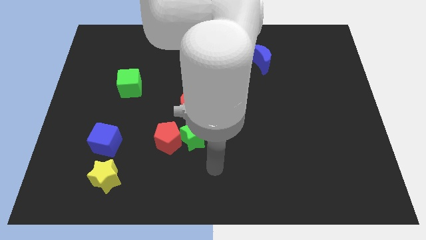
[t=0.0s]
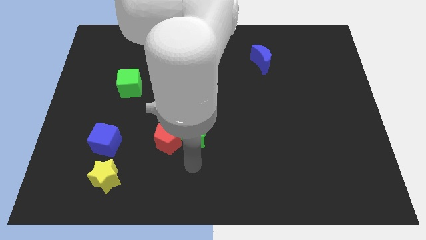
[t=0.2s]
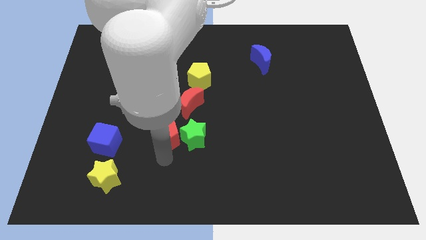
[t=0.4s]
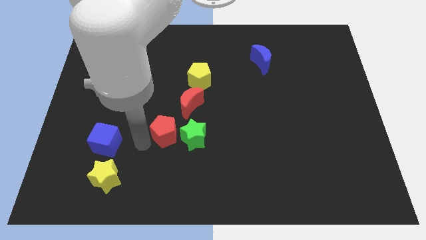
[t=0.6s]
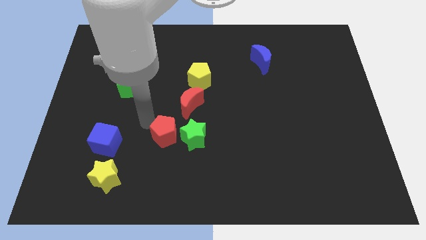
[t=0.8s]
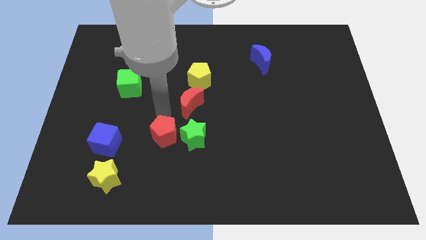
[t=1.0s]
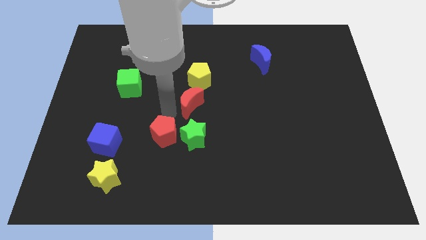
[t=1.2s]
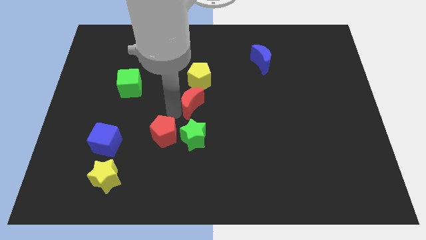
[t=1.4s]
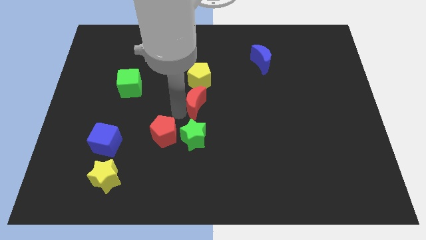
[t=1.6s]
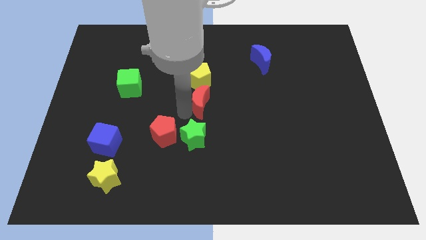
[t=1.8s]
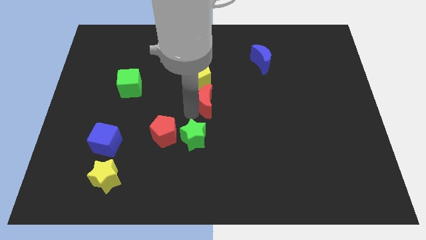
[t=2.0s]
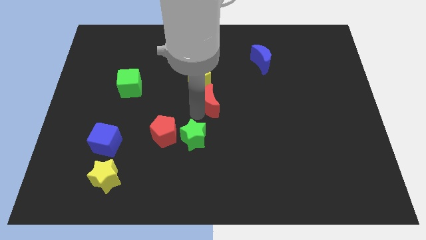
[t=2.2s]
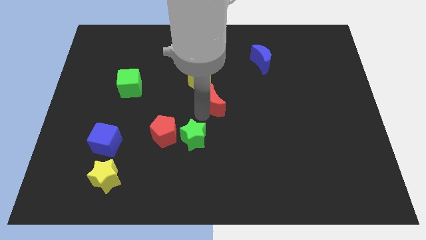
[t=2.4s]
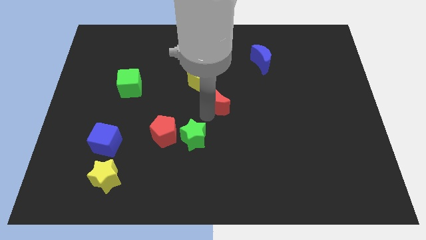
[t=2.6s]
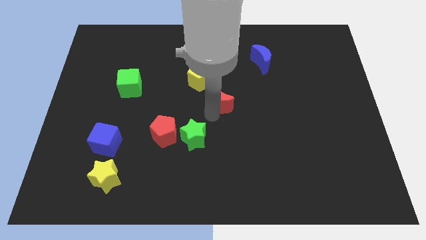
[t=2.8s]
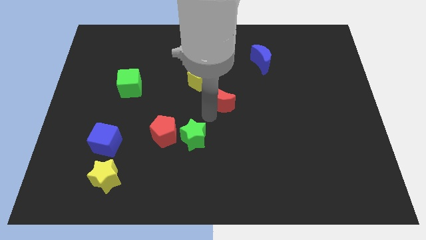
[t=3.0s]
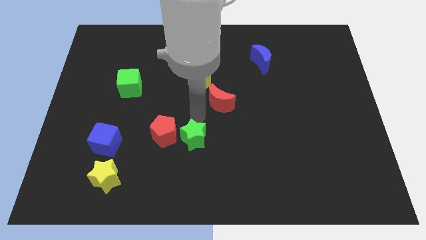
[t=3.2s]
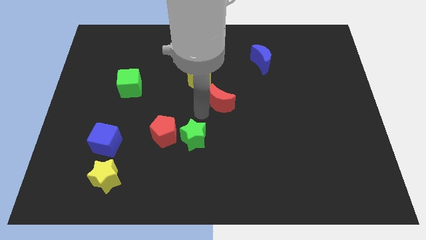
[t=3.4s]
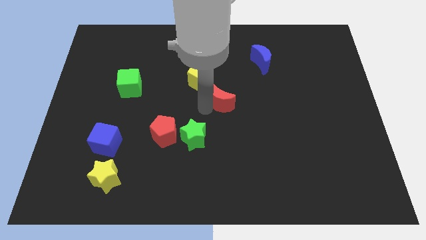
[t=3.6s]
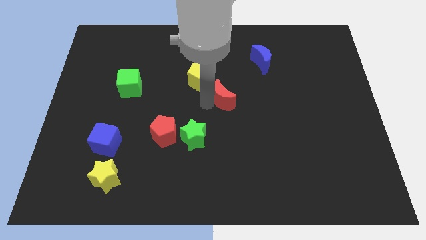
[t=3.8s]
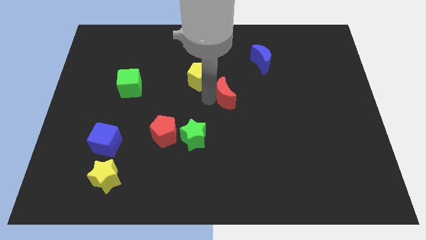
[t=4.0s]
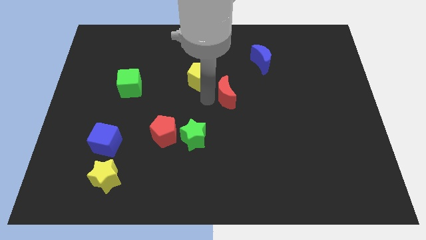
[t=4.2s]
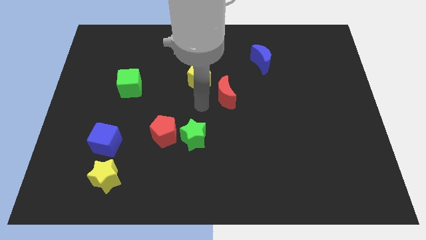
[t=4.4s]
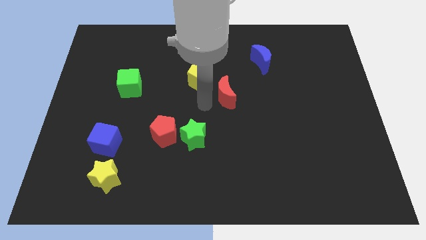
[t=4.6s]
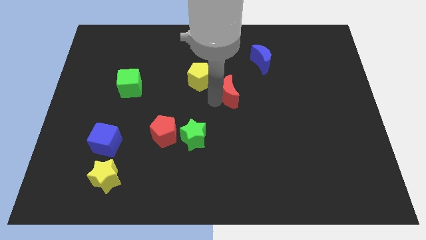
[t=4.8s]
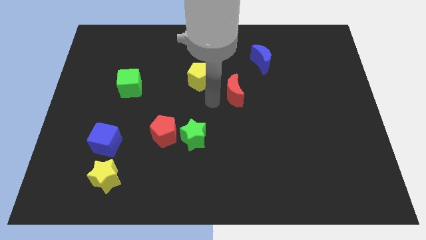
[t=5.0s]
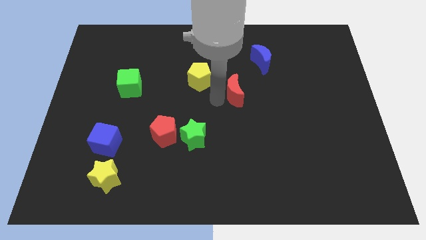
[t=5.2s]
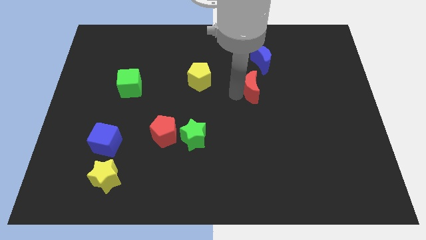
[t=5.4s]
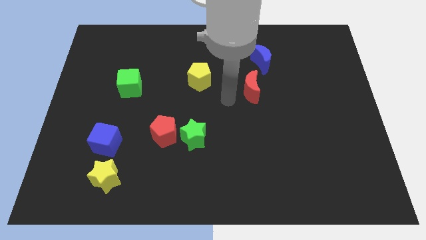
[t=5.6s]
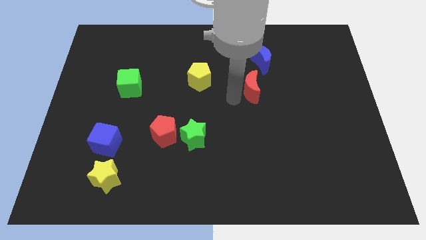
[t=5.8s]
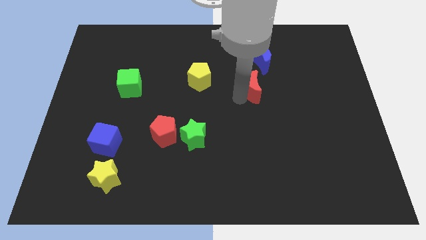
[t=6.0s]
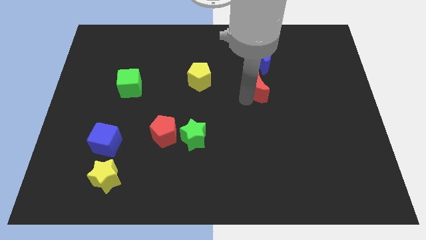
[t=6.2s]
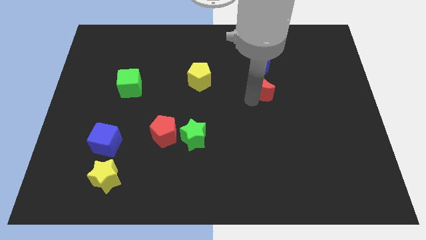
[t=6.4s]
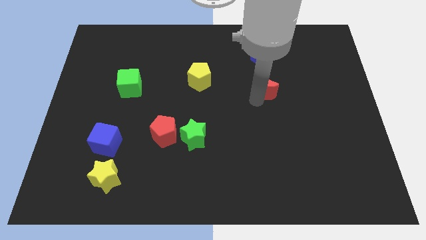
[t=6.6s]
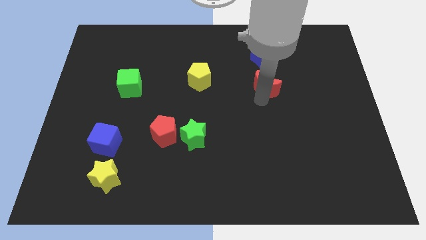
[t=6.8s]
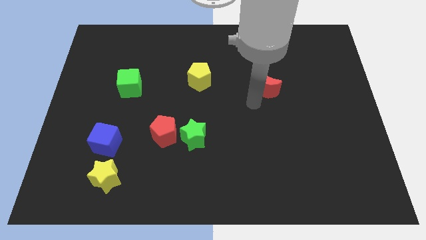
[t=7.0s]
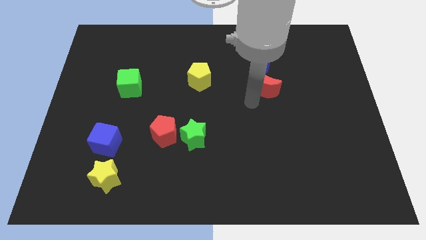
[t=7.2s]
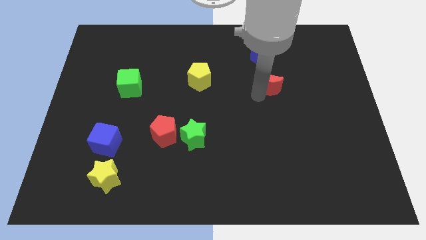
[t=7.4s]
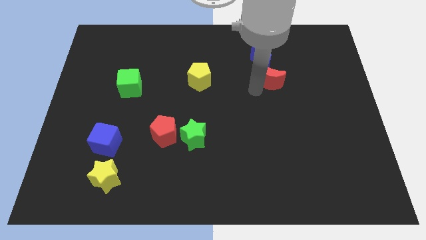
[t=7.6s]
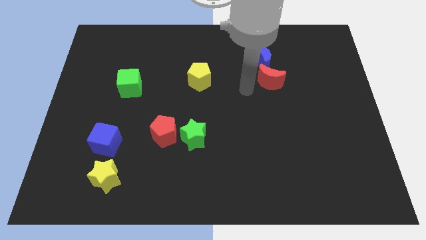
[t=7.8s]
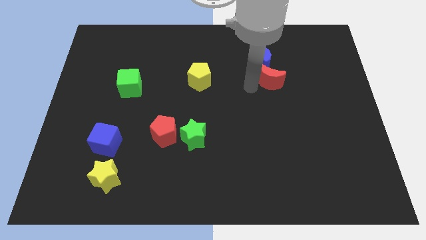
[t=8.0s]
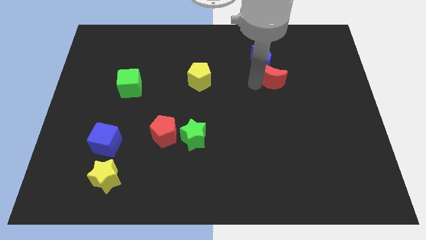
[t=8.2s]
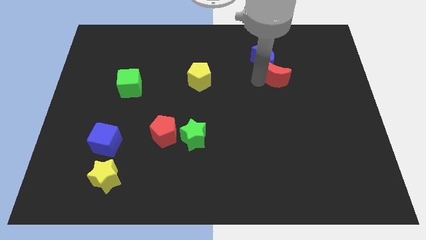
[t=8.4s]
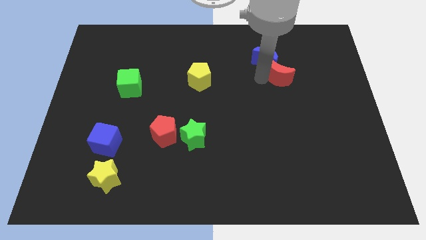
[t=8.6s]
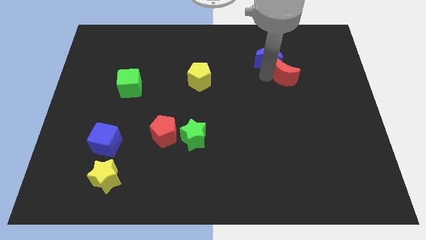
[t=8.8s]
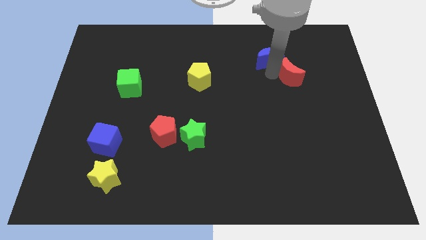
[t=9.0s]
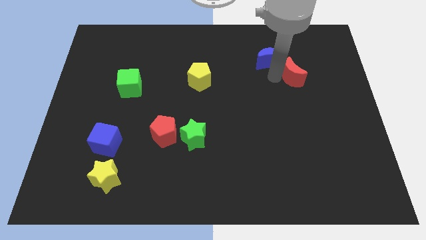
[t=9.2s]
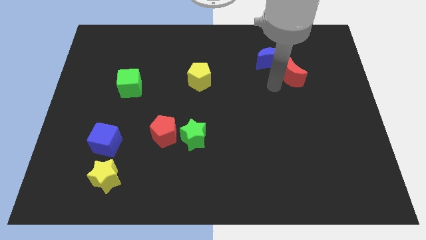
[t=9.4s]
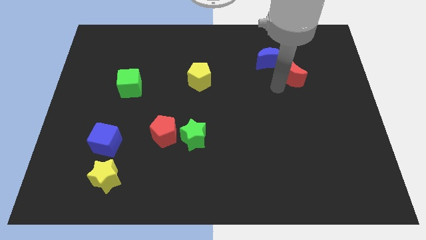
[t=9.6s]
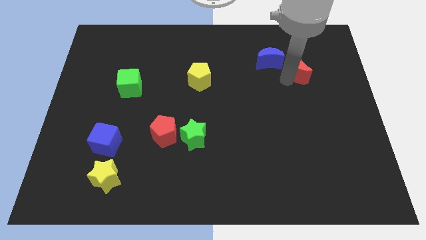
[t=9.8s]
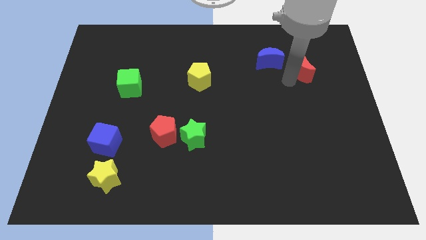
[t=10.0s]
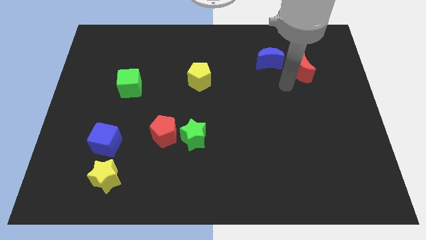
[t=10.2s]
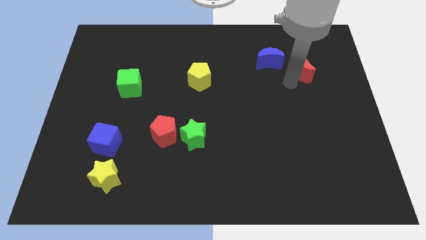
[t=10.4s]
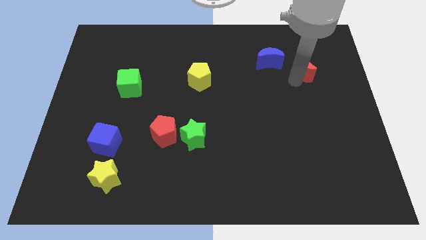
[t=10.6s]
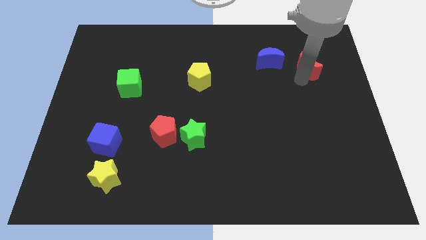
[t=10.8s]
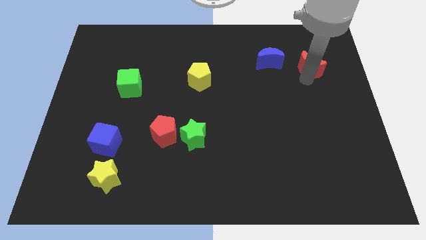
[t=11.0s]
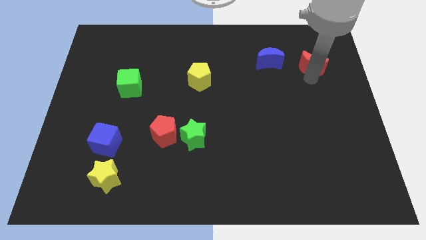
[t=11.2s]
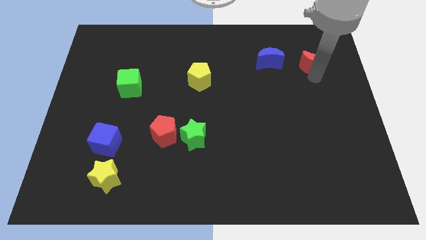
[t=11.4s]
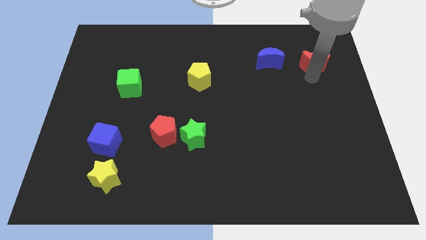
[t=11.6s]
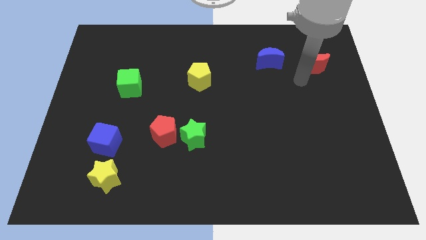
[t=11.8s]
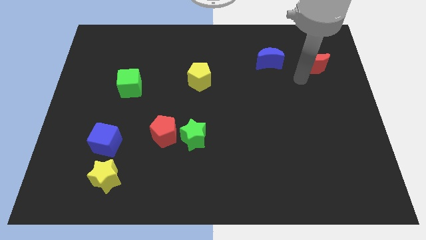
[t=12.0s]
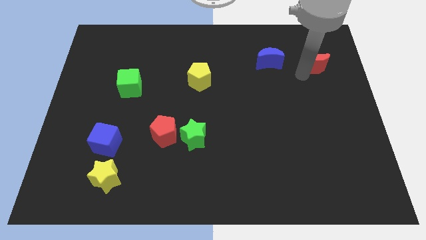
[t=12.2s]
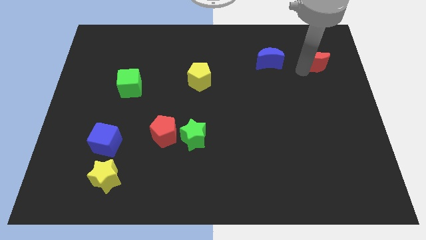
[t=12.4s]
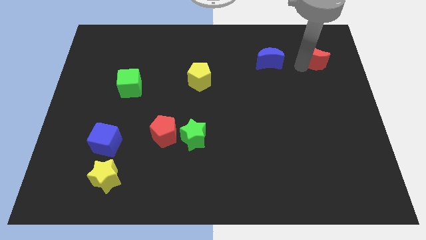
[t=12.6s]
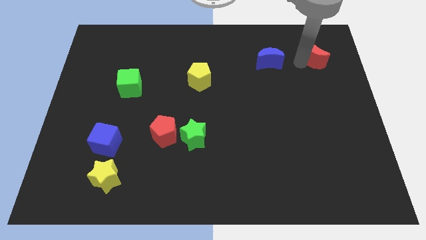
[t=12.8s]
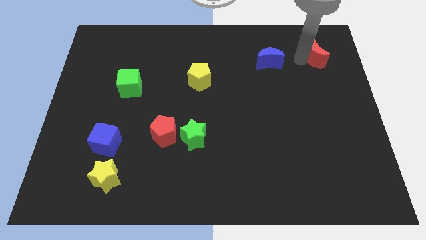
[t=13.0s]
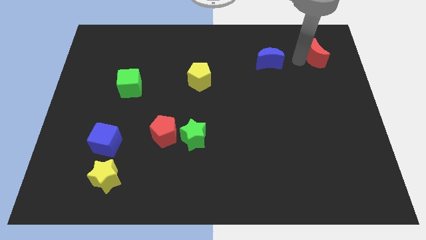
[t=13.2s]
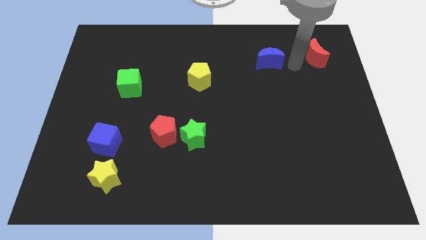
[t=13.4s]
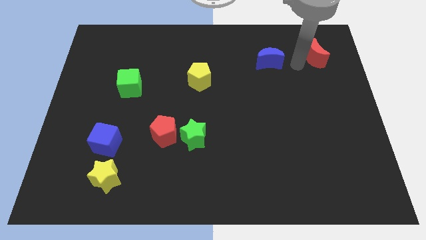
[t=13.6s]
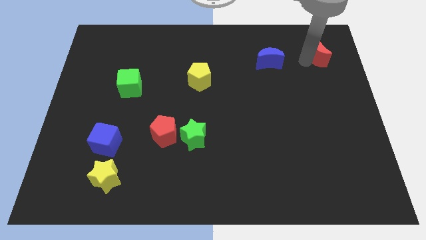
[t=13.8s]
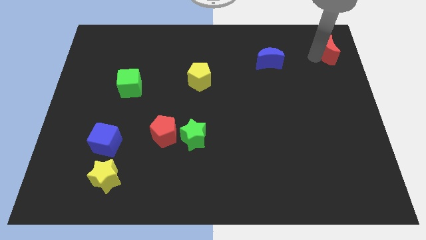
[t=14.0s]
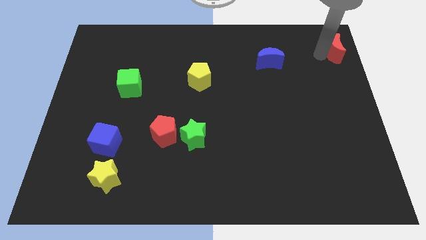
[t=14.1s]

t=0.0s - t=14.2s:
slide the red moon to the top right

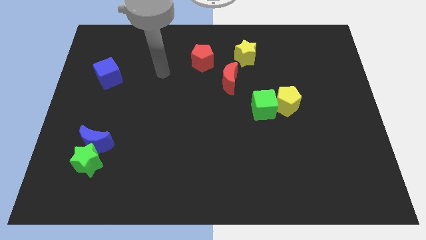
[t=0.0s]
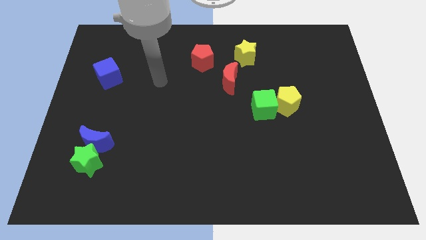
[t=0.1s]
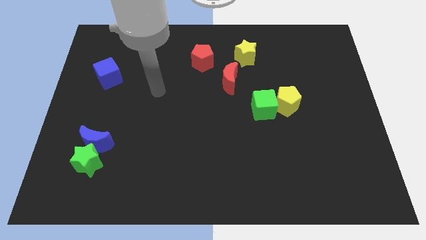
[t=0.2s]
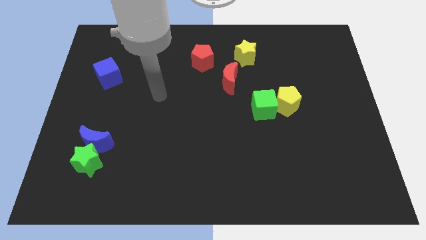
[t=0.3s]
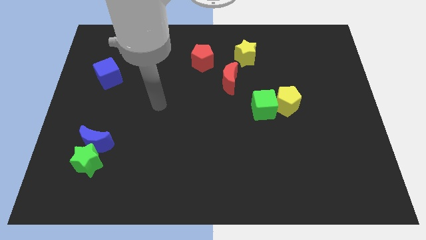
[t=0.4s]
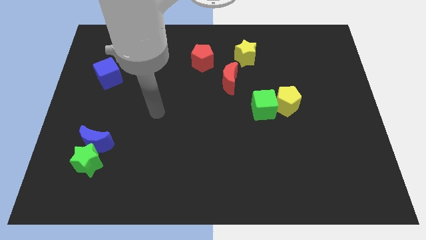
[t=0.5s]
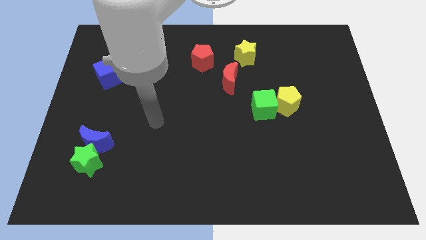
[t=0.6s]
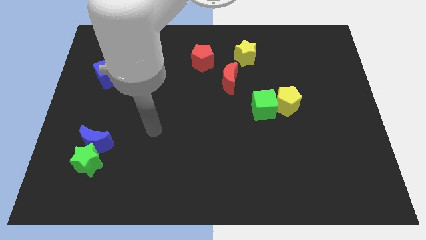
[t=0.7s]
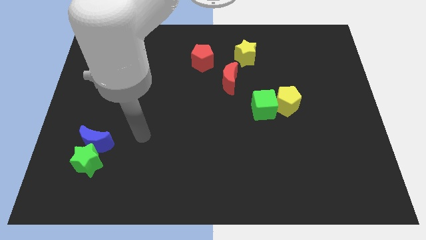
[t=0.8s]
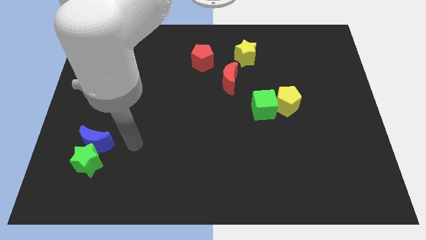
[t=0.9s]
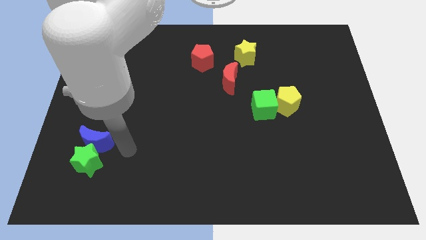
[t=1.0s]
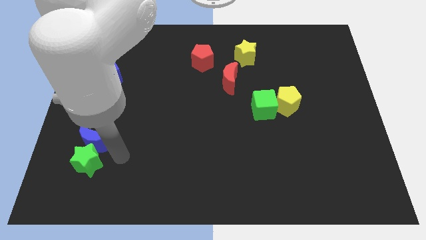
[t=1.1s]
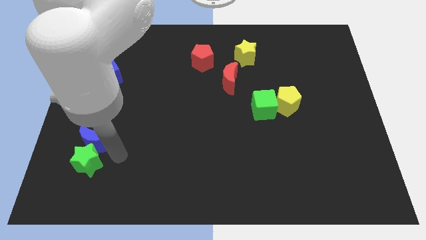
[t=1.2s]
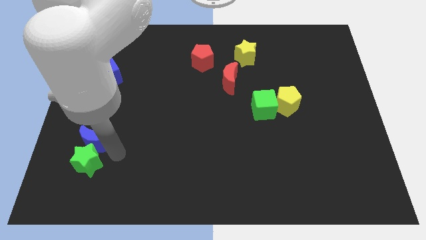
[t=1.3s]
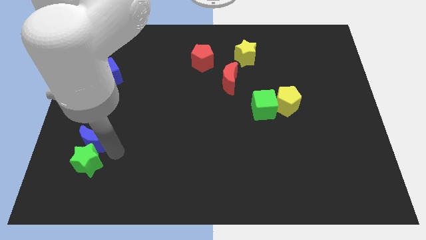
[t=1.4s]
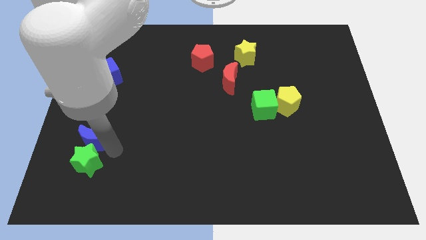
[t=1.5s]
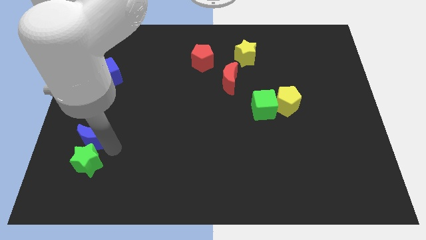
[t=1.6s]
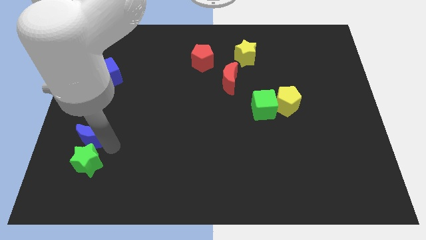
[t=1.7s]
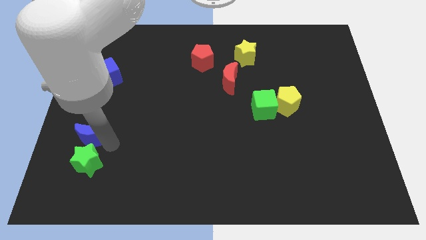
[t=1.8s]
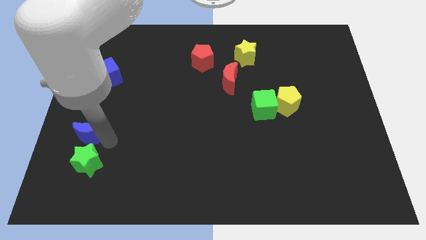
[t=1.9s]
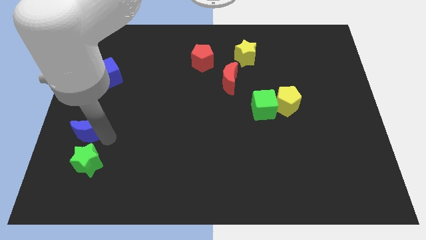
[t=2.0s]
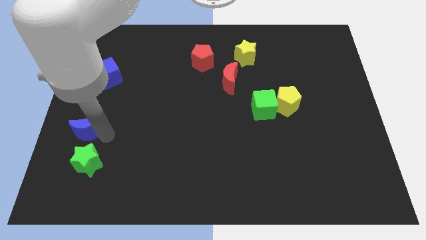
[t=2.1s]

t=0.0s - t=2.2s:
push the blue moon to the center left
